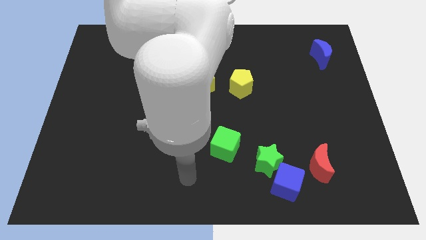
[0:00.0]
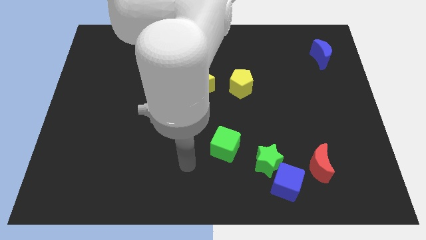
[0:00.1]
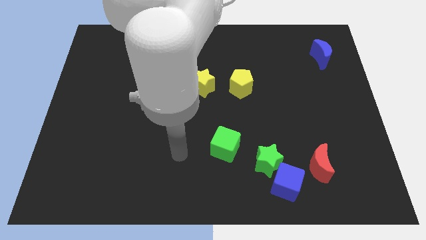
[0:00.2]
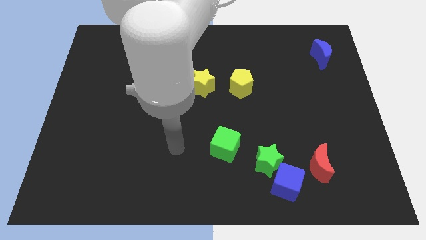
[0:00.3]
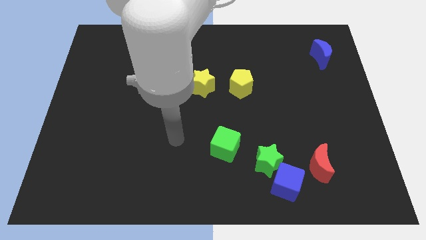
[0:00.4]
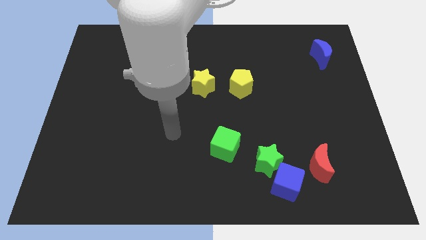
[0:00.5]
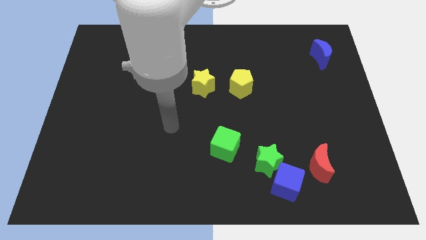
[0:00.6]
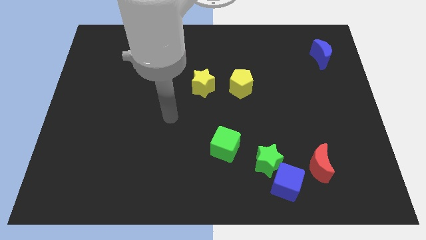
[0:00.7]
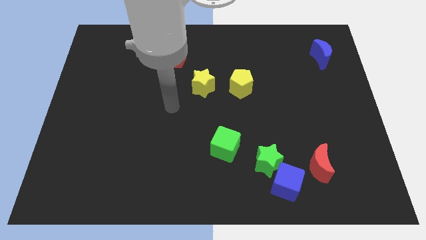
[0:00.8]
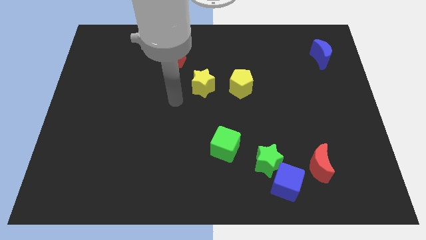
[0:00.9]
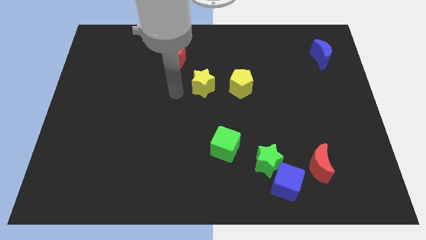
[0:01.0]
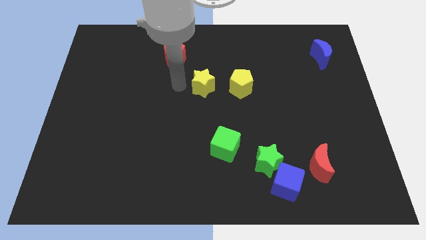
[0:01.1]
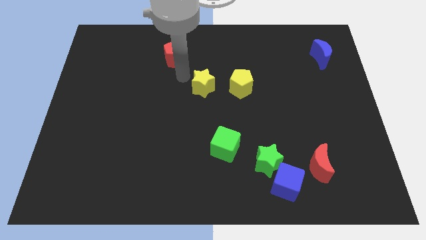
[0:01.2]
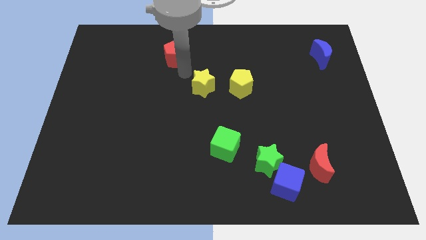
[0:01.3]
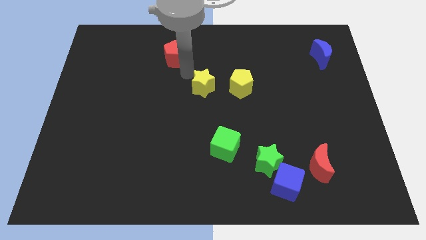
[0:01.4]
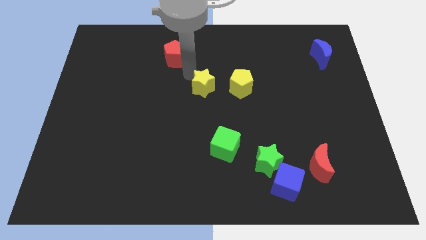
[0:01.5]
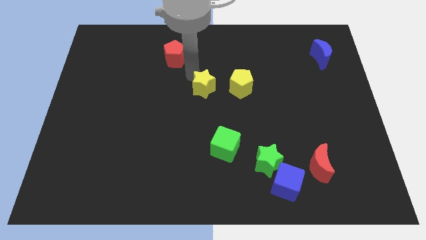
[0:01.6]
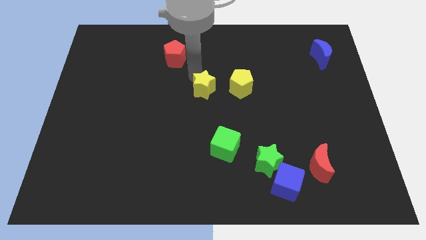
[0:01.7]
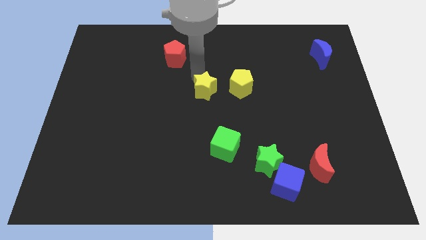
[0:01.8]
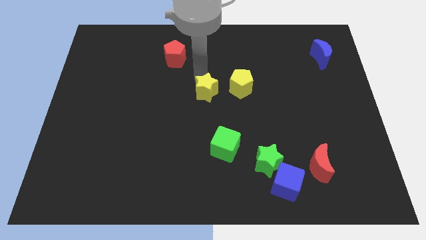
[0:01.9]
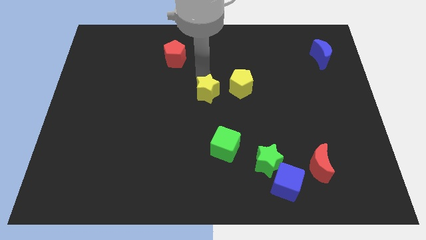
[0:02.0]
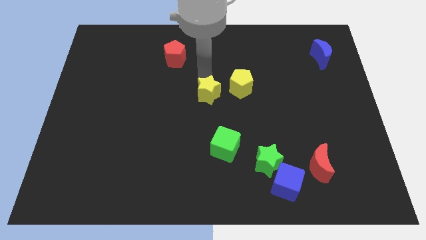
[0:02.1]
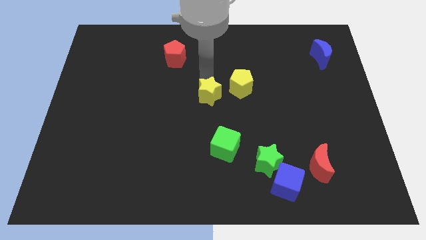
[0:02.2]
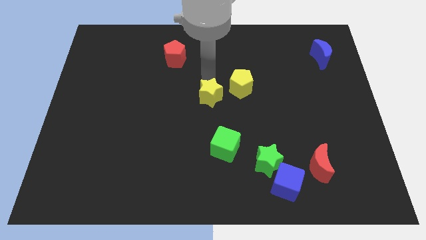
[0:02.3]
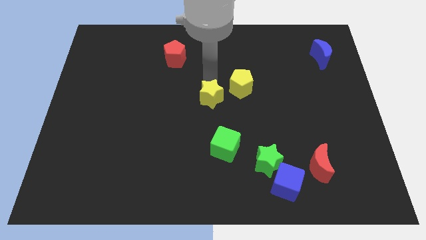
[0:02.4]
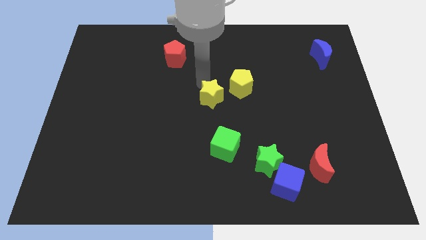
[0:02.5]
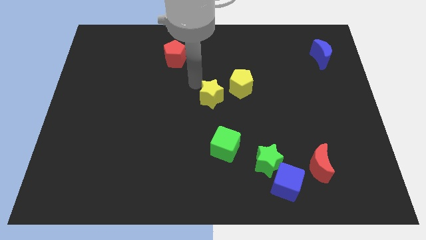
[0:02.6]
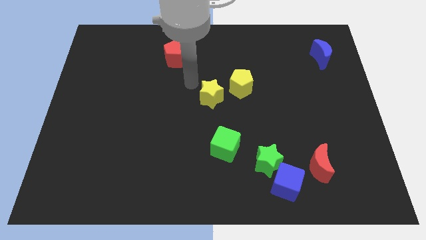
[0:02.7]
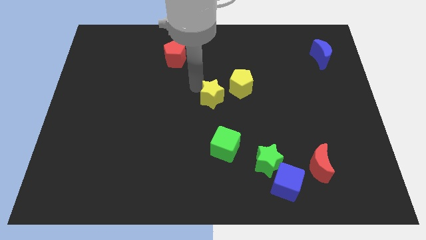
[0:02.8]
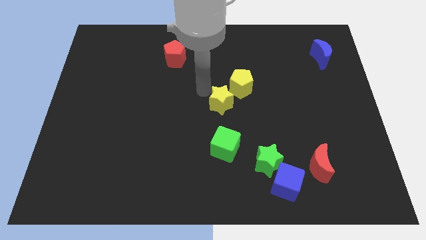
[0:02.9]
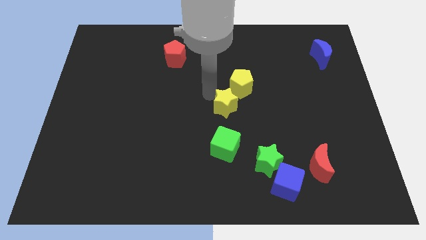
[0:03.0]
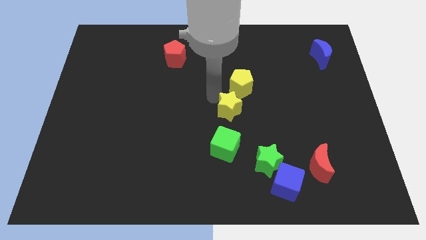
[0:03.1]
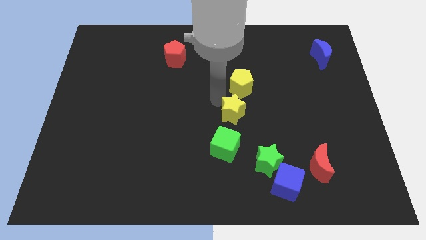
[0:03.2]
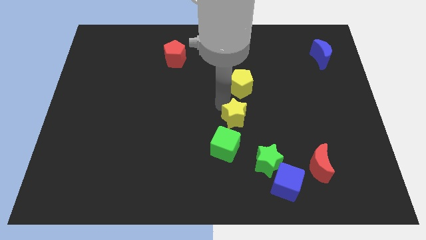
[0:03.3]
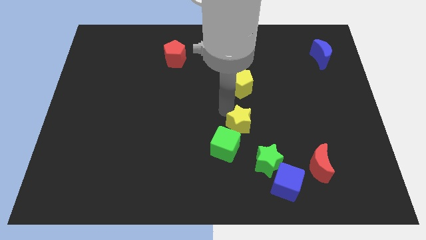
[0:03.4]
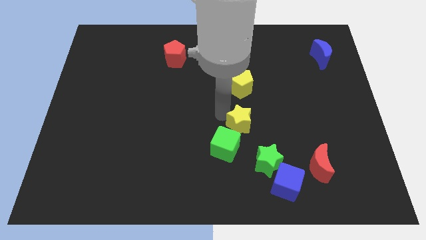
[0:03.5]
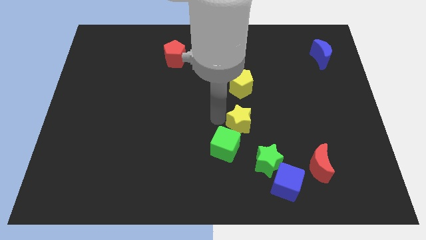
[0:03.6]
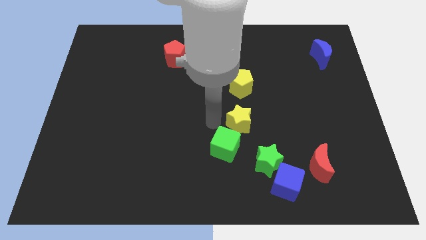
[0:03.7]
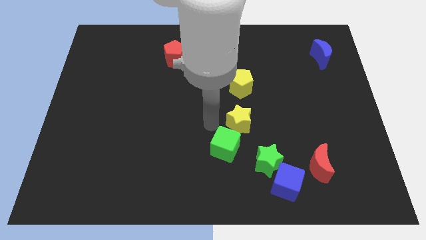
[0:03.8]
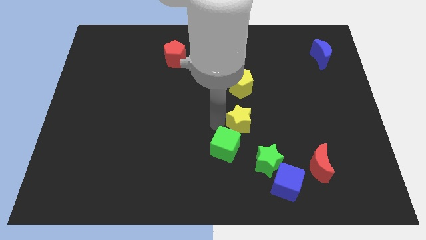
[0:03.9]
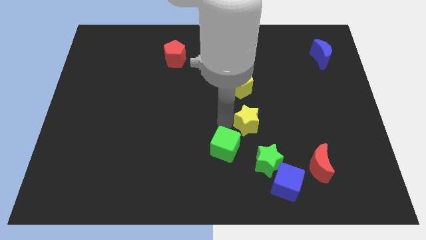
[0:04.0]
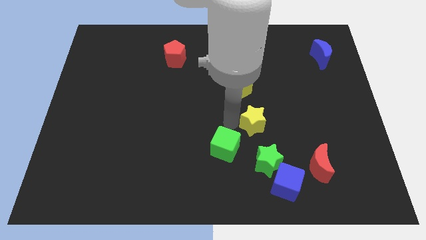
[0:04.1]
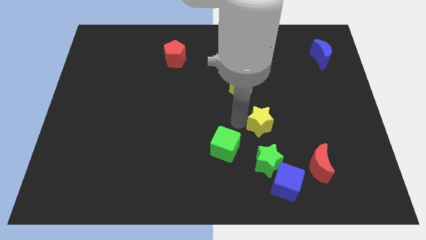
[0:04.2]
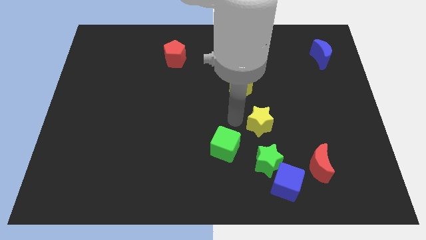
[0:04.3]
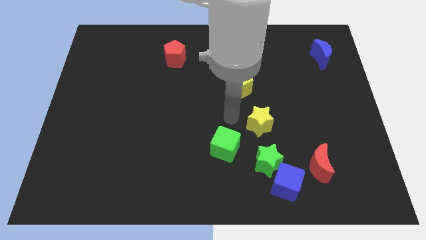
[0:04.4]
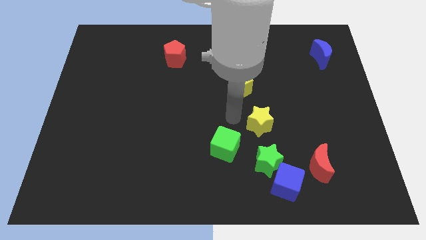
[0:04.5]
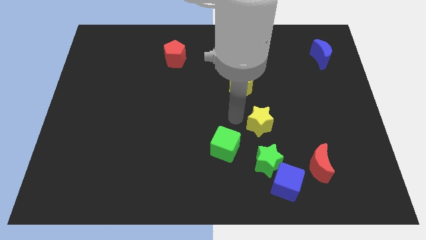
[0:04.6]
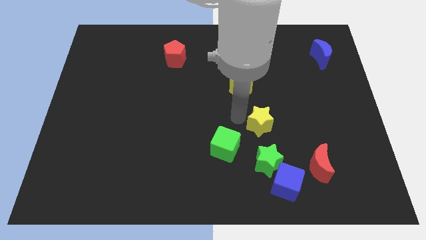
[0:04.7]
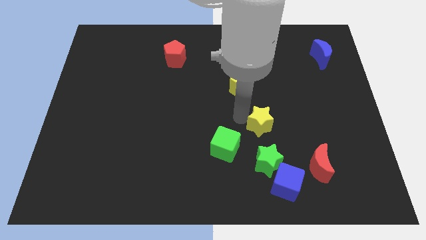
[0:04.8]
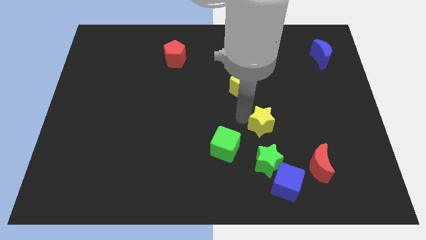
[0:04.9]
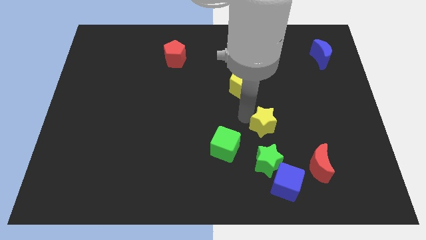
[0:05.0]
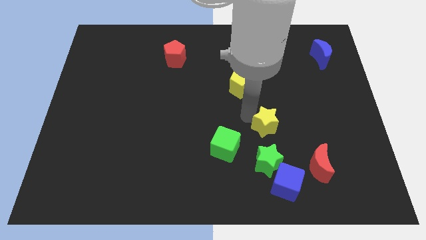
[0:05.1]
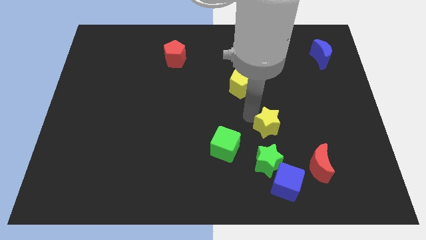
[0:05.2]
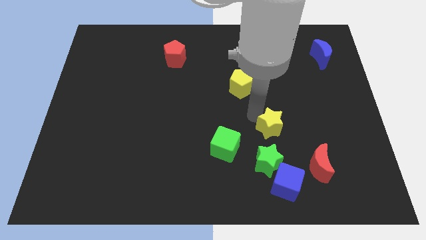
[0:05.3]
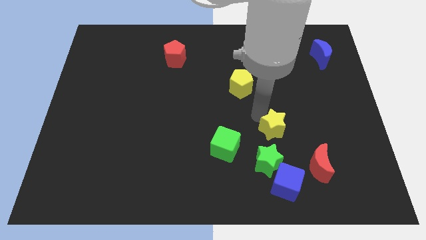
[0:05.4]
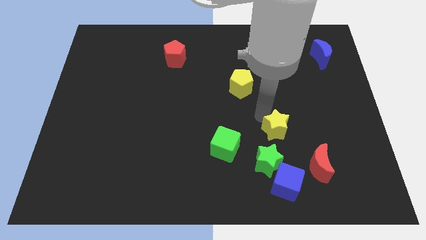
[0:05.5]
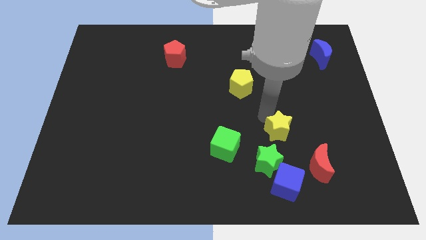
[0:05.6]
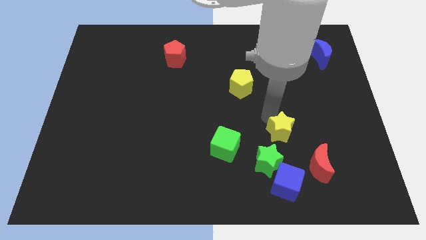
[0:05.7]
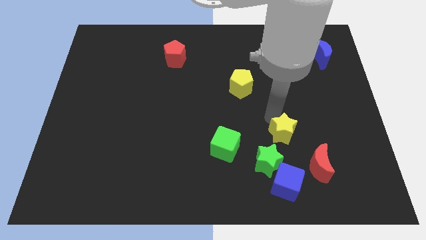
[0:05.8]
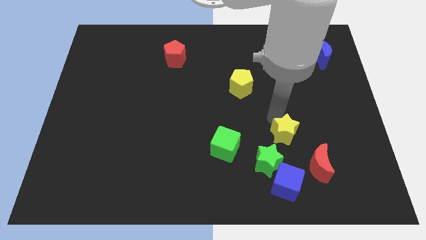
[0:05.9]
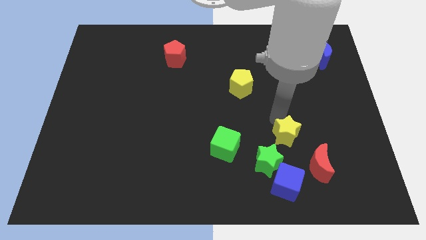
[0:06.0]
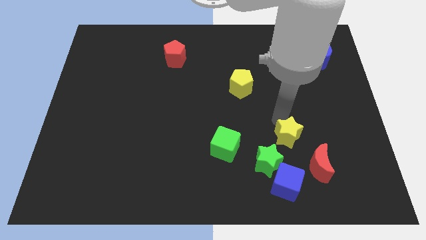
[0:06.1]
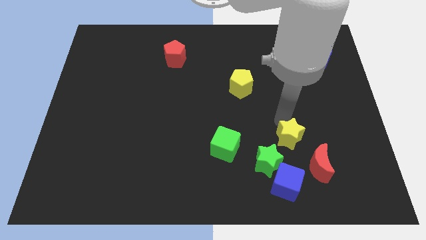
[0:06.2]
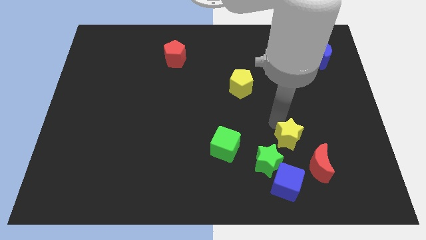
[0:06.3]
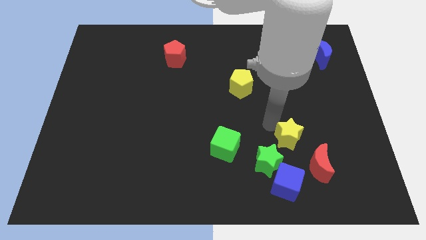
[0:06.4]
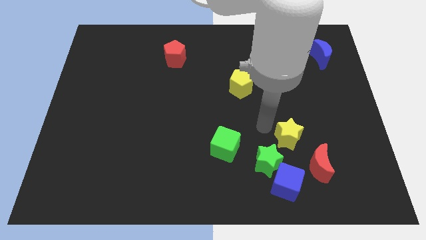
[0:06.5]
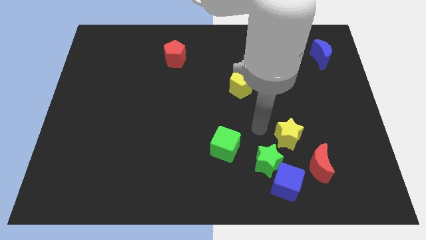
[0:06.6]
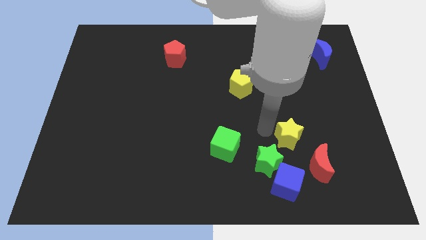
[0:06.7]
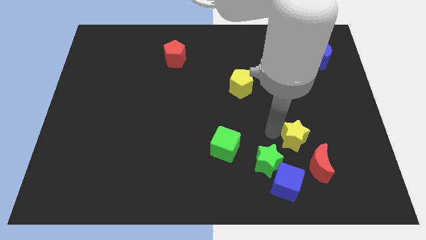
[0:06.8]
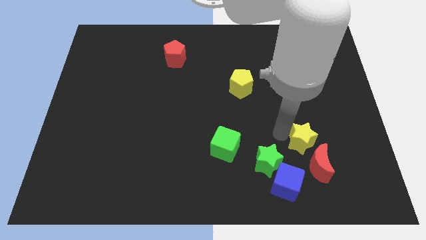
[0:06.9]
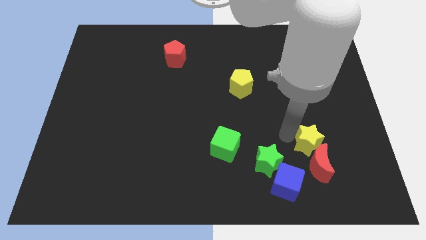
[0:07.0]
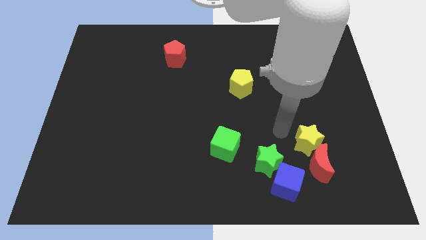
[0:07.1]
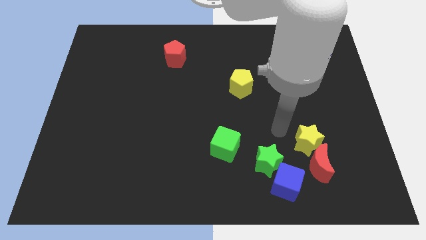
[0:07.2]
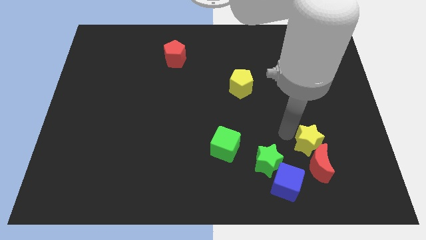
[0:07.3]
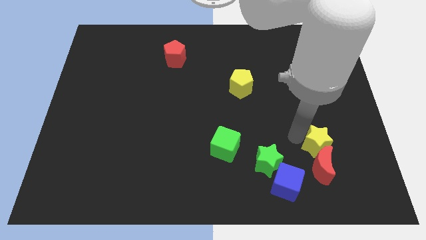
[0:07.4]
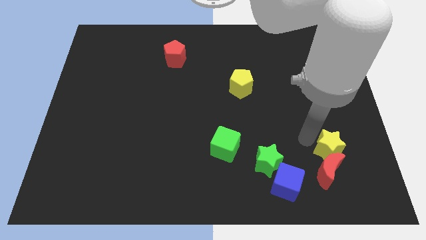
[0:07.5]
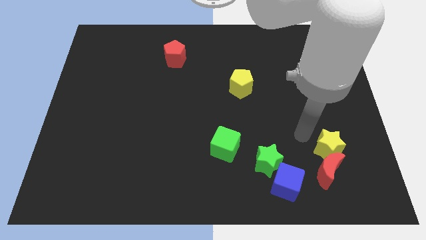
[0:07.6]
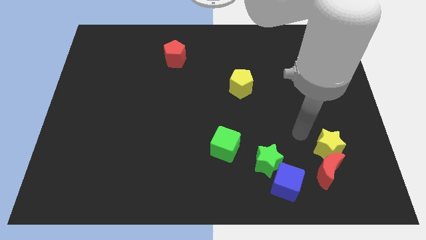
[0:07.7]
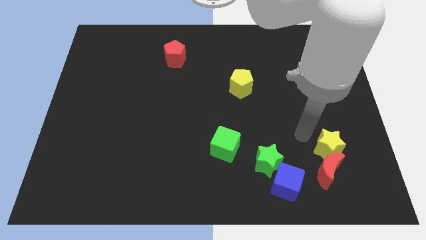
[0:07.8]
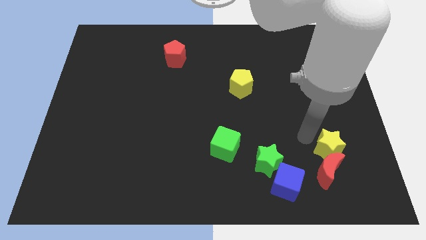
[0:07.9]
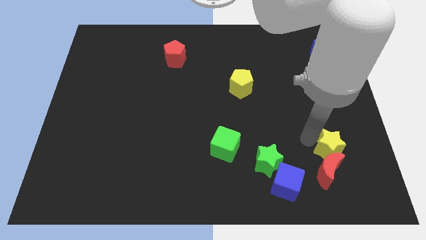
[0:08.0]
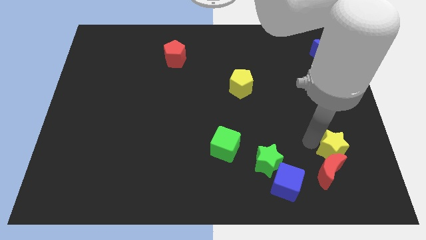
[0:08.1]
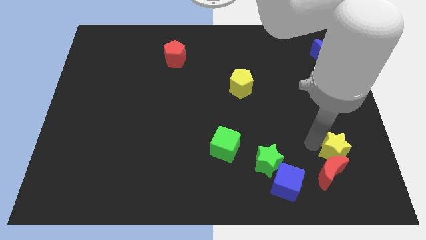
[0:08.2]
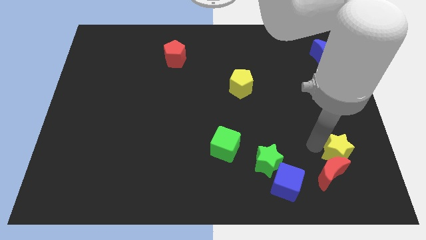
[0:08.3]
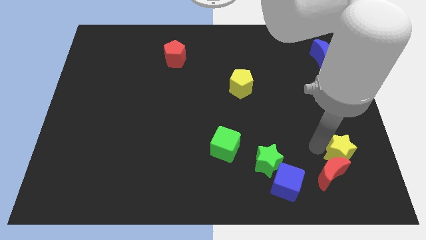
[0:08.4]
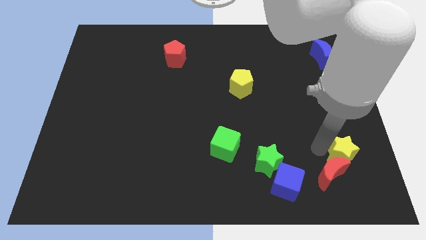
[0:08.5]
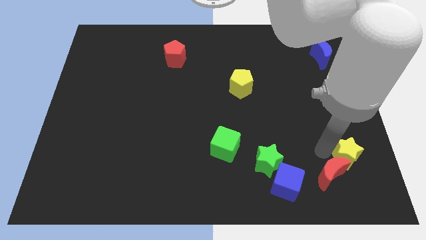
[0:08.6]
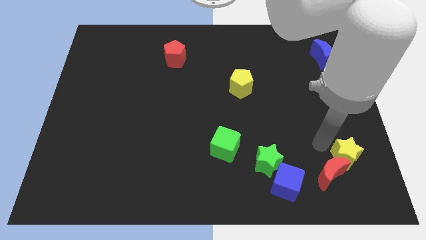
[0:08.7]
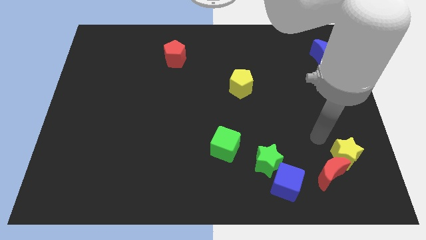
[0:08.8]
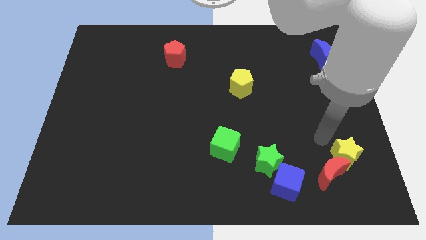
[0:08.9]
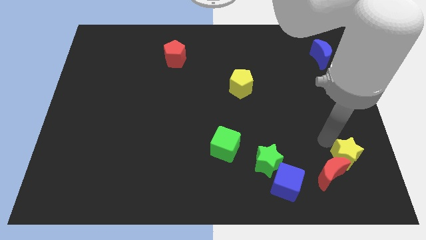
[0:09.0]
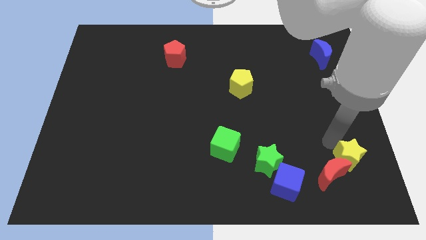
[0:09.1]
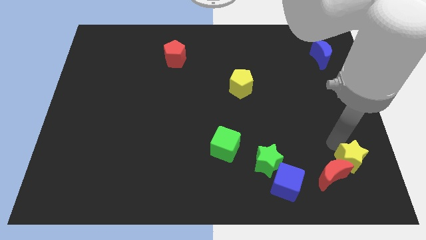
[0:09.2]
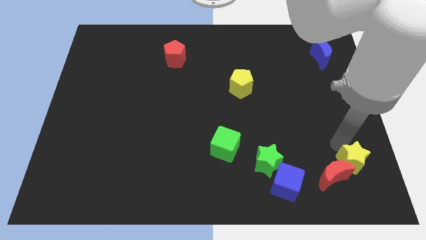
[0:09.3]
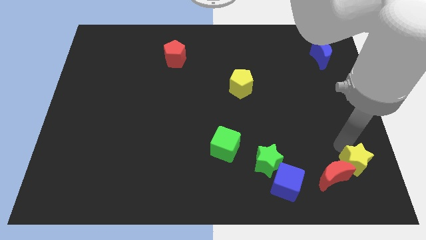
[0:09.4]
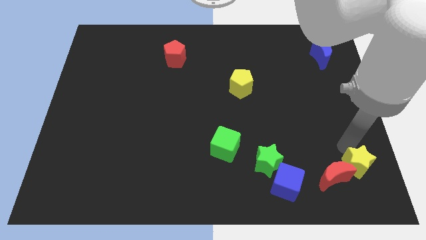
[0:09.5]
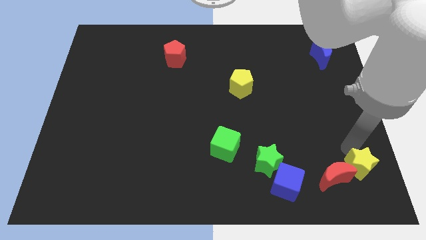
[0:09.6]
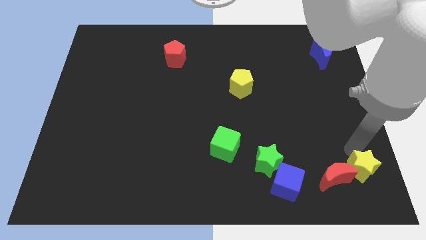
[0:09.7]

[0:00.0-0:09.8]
put the yellow star to the bottom right
